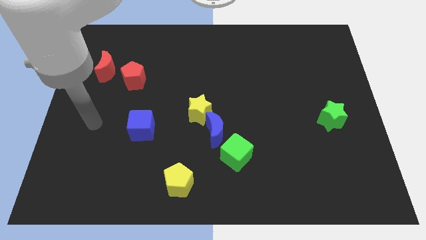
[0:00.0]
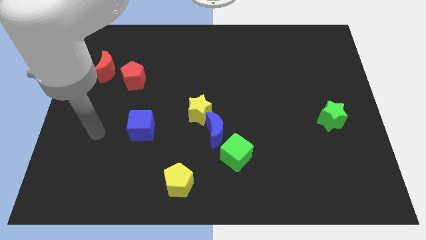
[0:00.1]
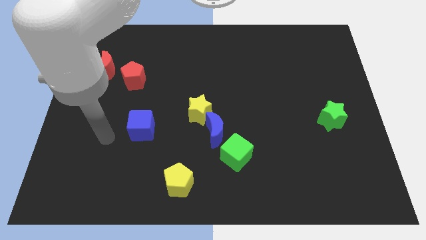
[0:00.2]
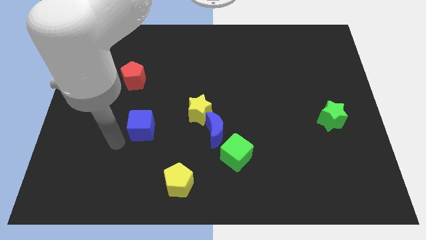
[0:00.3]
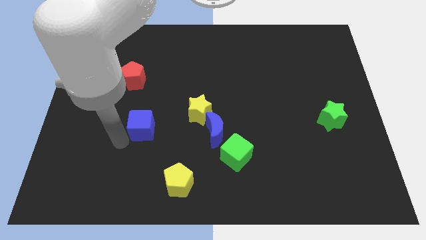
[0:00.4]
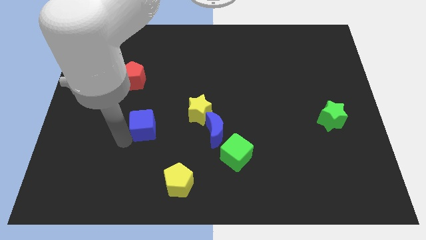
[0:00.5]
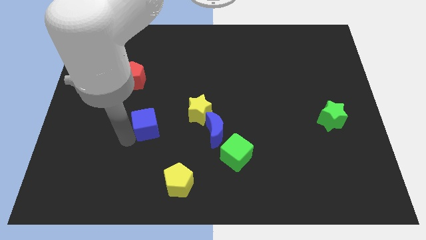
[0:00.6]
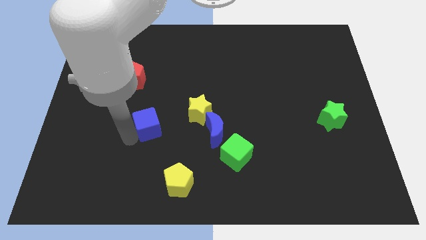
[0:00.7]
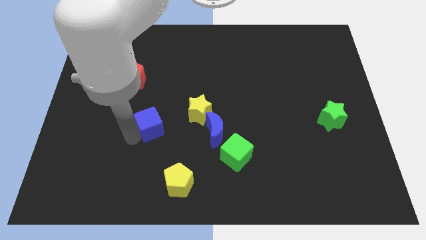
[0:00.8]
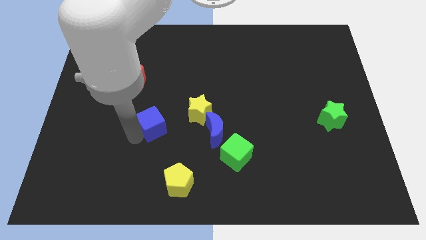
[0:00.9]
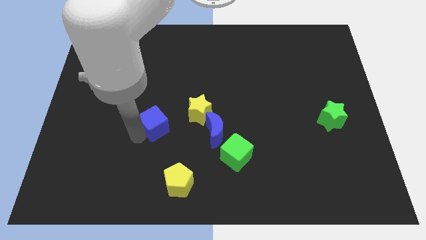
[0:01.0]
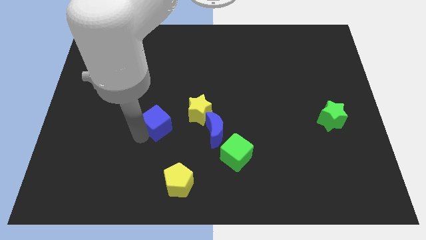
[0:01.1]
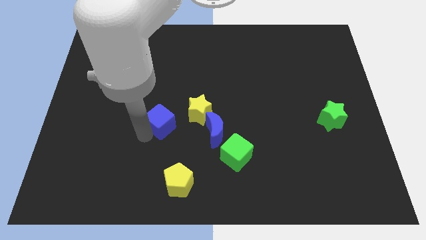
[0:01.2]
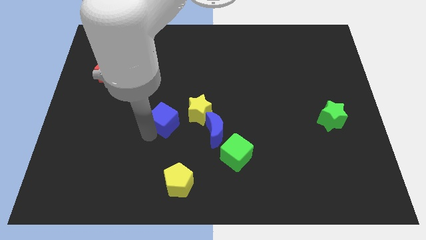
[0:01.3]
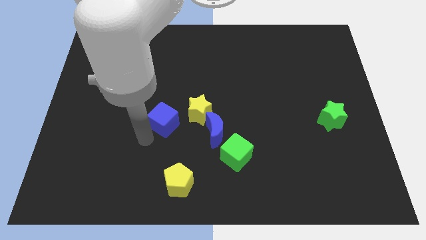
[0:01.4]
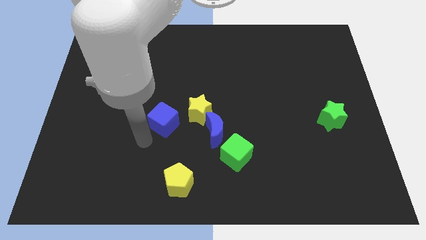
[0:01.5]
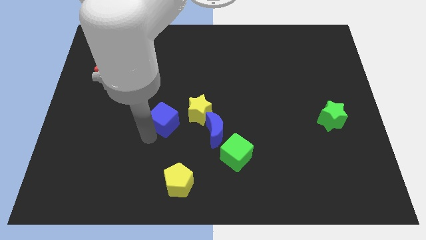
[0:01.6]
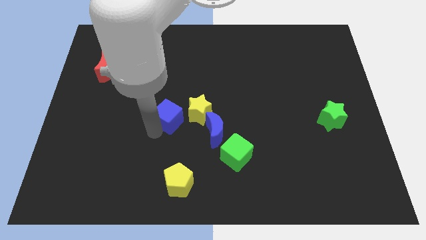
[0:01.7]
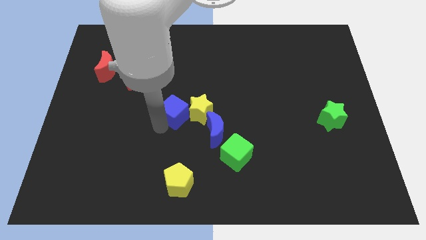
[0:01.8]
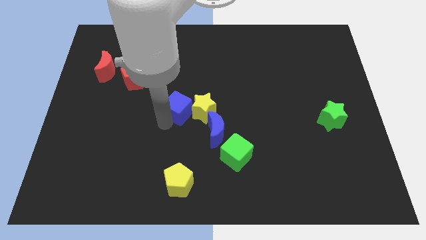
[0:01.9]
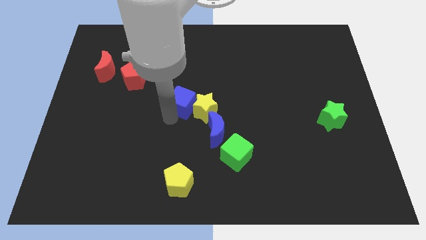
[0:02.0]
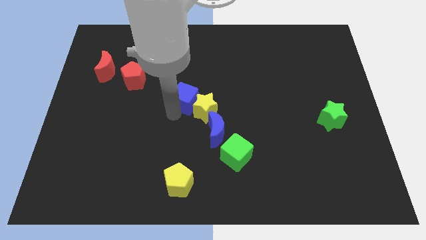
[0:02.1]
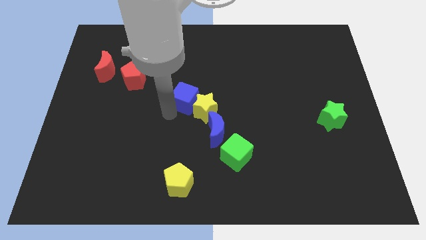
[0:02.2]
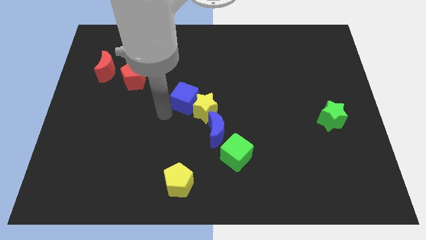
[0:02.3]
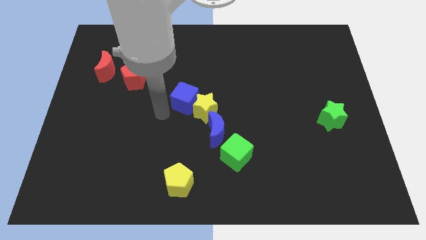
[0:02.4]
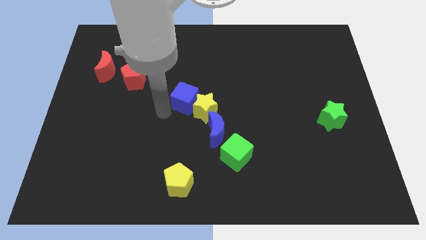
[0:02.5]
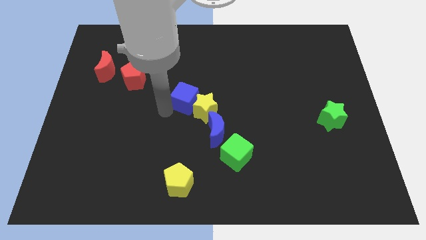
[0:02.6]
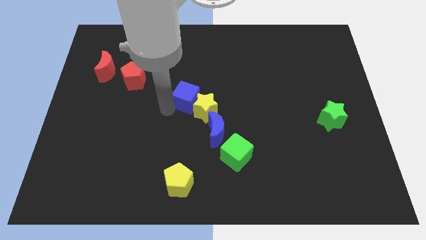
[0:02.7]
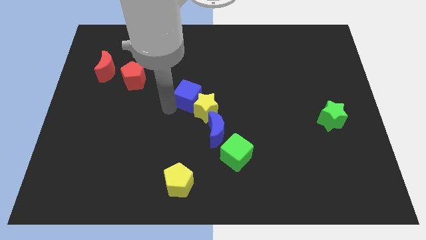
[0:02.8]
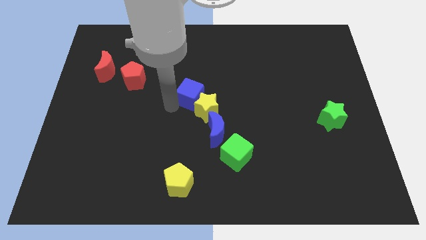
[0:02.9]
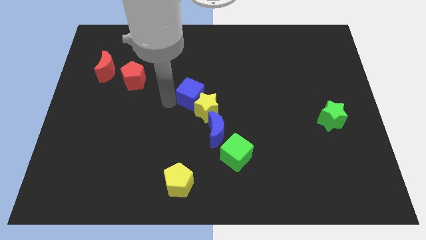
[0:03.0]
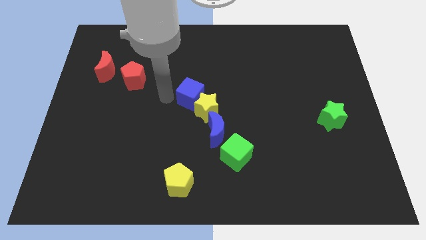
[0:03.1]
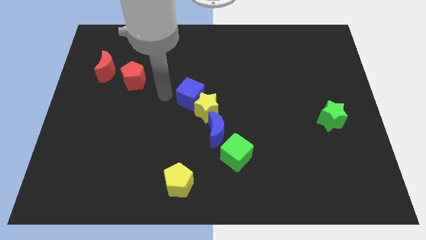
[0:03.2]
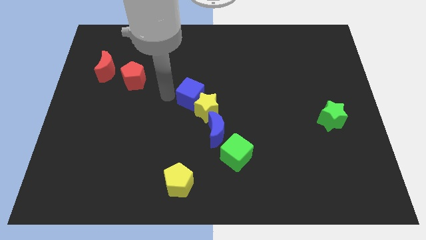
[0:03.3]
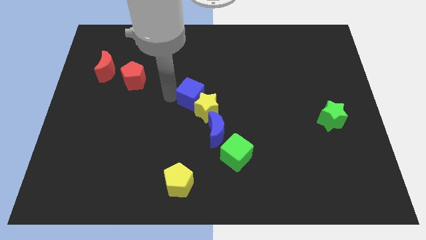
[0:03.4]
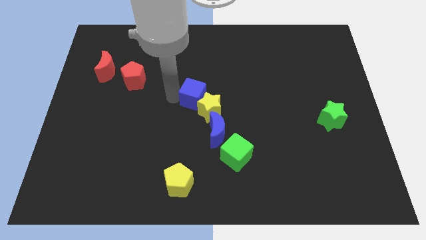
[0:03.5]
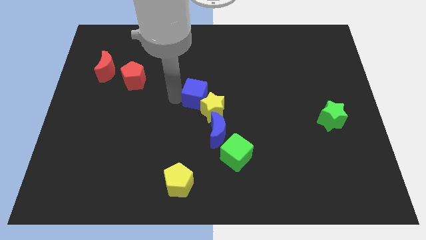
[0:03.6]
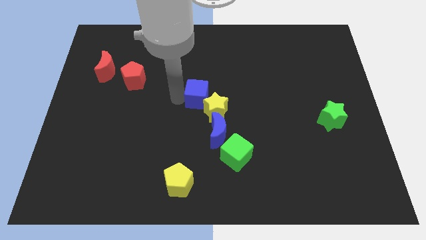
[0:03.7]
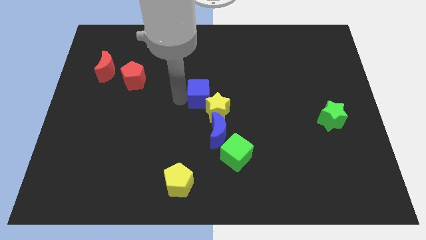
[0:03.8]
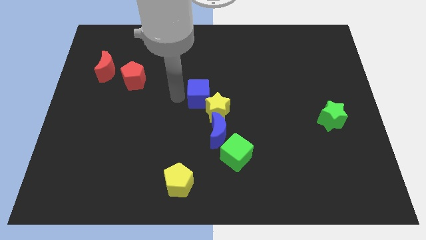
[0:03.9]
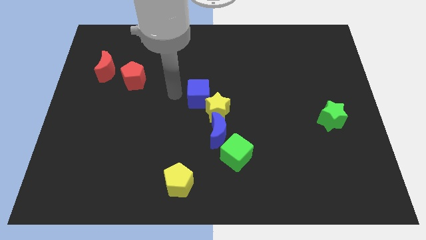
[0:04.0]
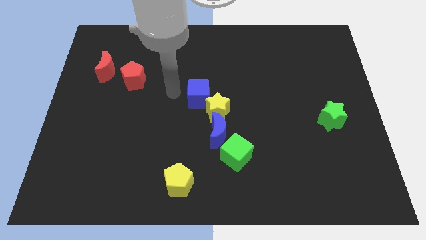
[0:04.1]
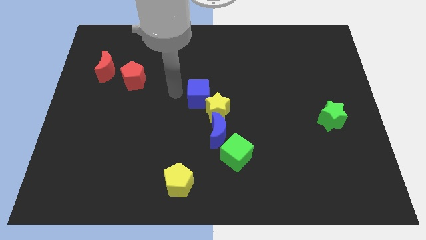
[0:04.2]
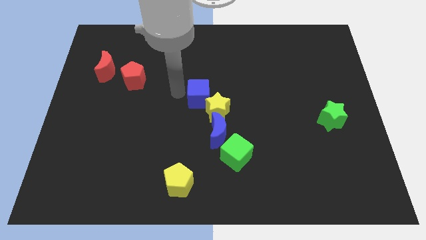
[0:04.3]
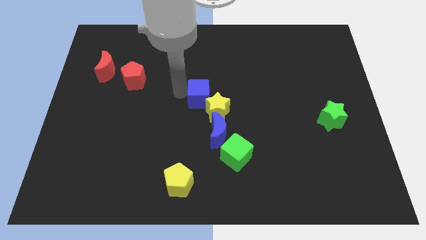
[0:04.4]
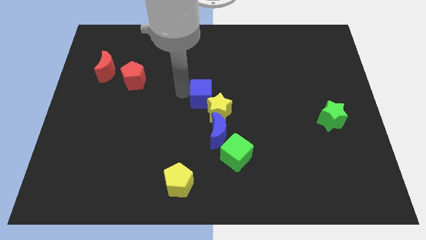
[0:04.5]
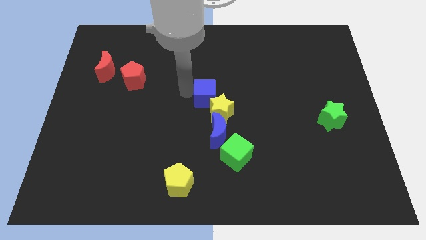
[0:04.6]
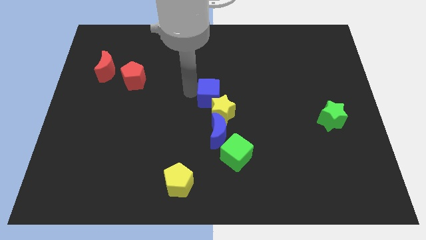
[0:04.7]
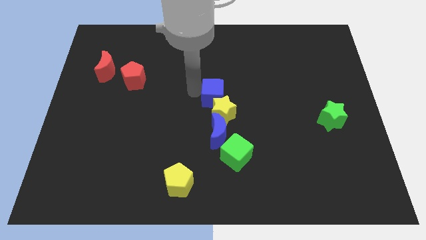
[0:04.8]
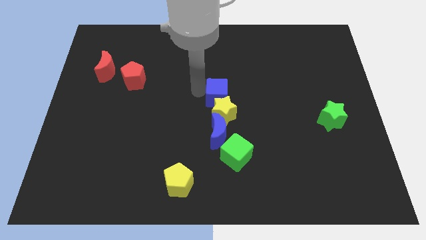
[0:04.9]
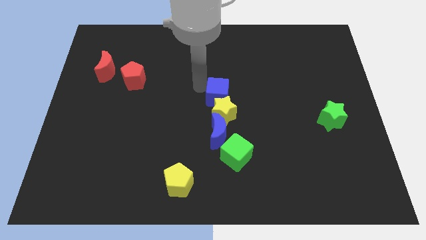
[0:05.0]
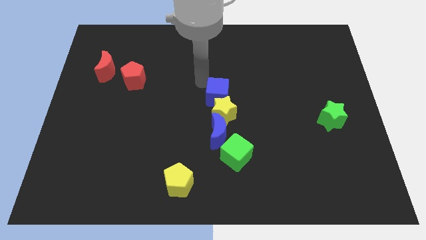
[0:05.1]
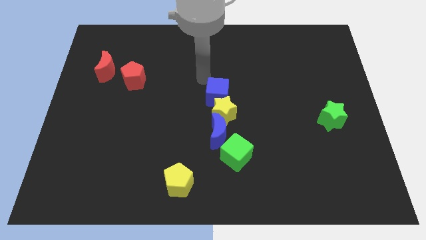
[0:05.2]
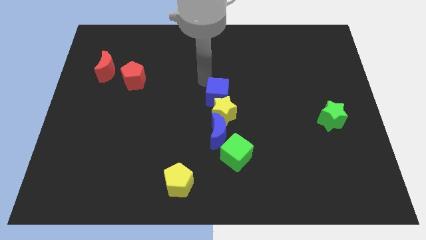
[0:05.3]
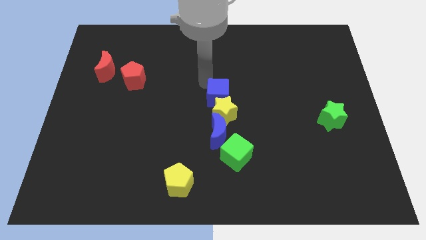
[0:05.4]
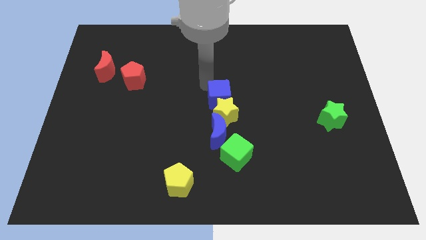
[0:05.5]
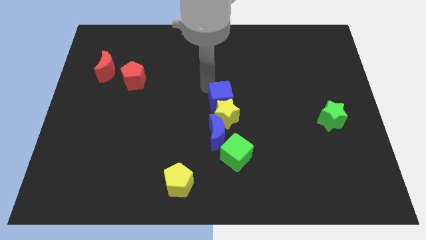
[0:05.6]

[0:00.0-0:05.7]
slide the blue cube to the top side of the green cube

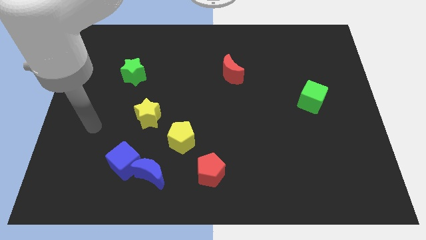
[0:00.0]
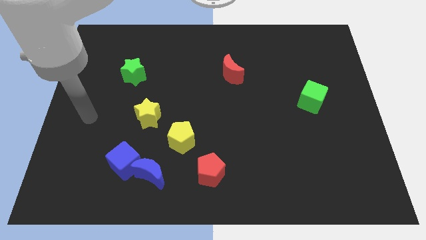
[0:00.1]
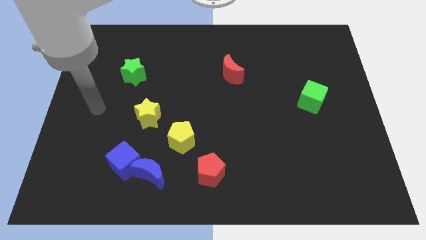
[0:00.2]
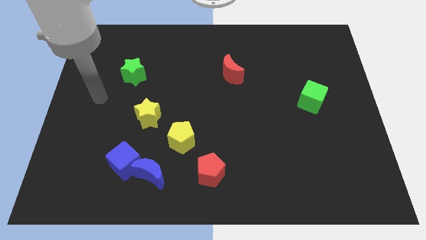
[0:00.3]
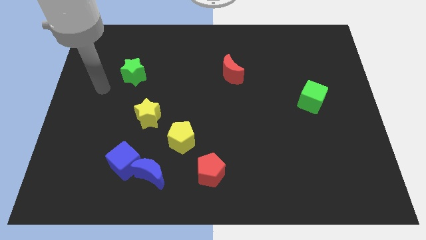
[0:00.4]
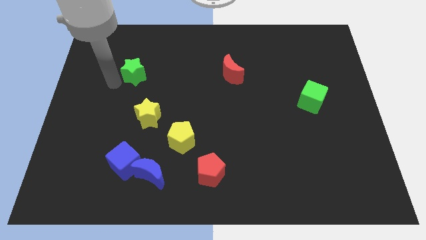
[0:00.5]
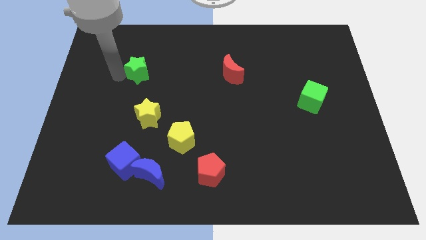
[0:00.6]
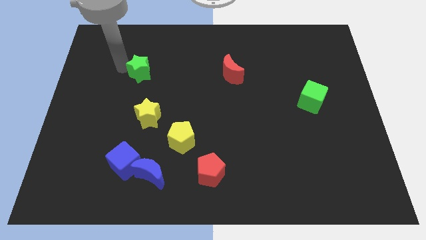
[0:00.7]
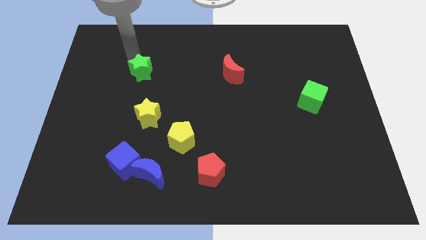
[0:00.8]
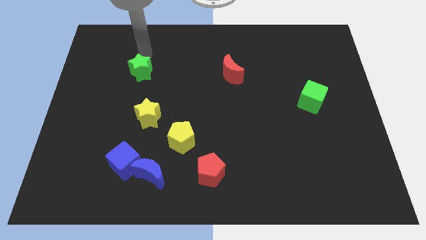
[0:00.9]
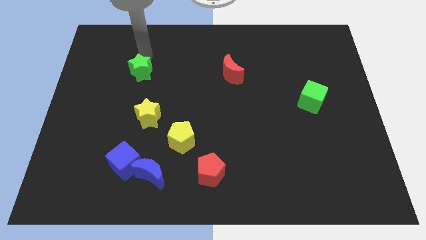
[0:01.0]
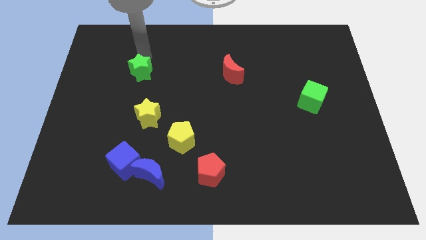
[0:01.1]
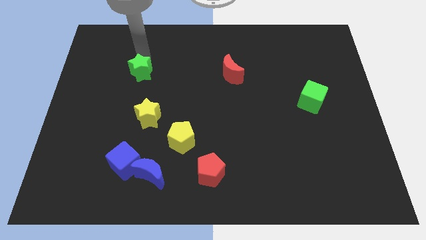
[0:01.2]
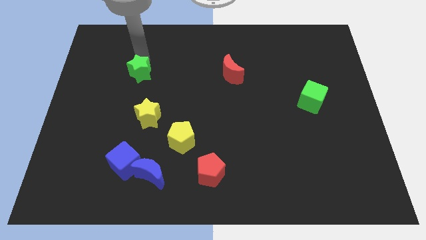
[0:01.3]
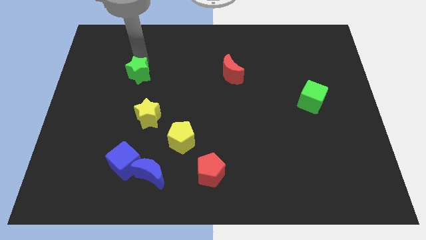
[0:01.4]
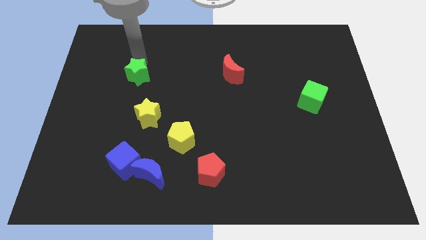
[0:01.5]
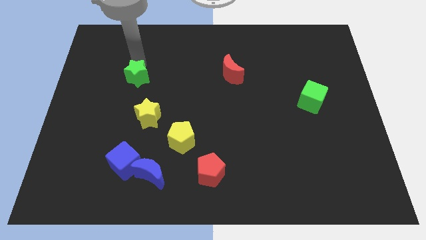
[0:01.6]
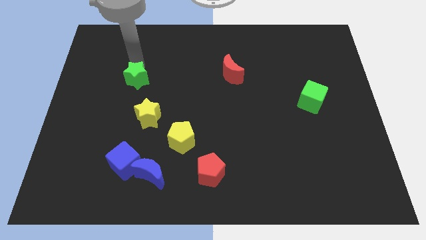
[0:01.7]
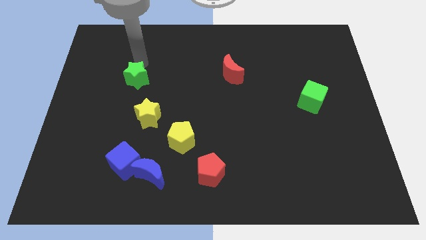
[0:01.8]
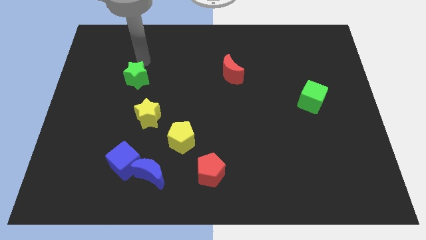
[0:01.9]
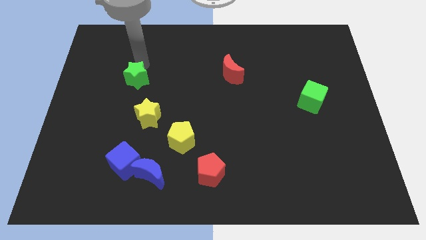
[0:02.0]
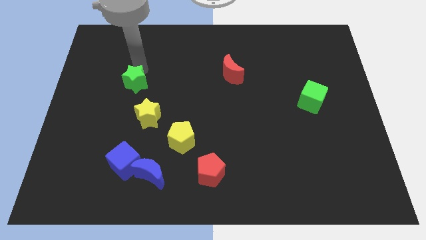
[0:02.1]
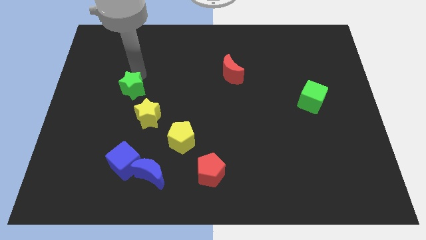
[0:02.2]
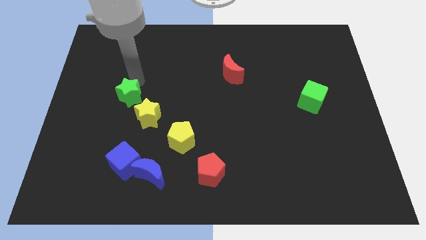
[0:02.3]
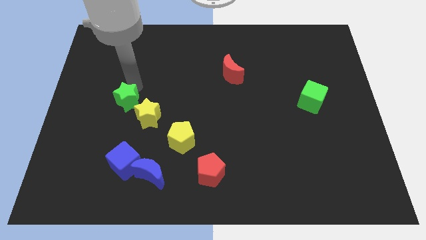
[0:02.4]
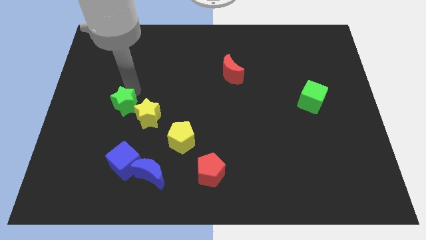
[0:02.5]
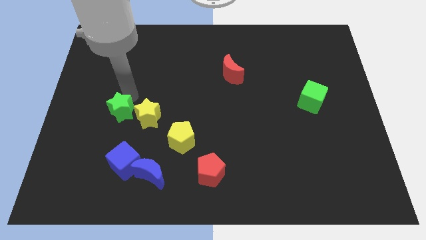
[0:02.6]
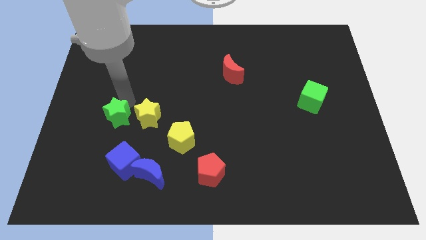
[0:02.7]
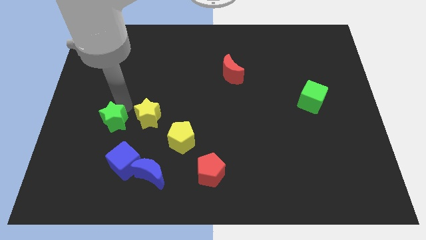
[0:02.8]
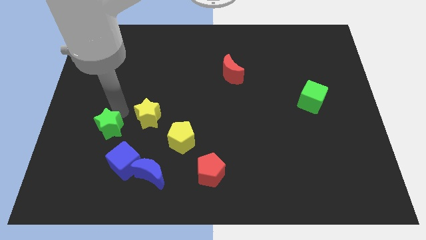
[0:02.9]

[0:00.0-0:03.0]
slide the green star to the top left side of the blue cube
